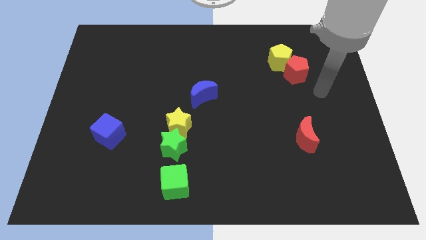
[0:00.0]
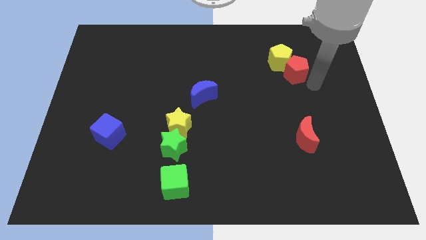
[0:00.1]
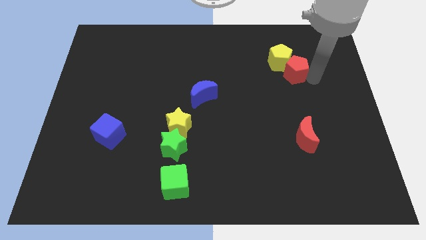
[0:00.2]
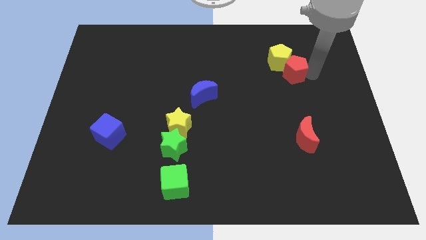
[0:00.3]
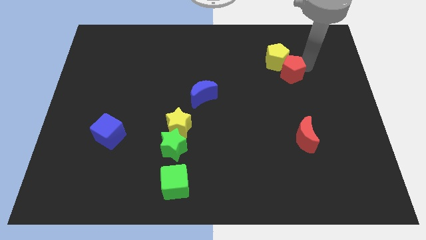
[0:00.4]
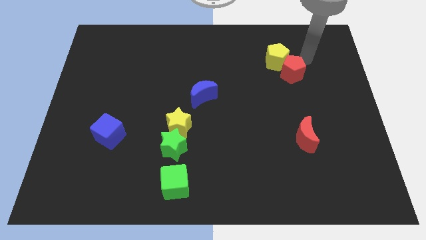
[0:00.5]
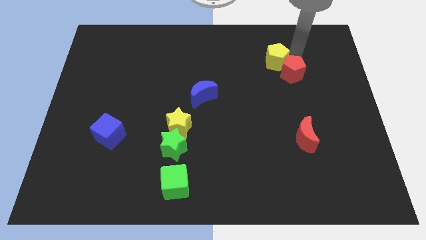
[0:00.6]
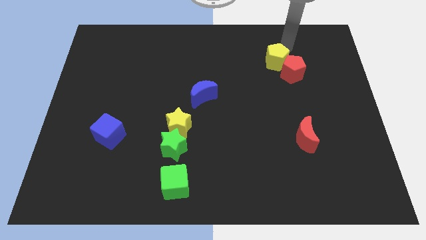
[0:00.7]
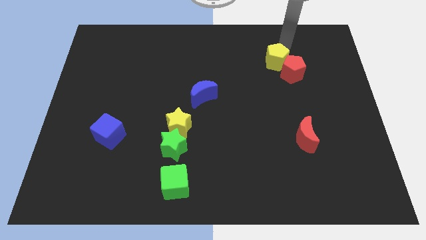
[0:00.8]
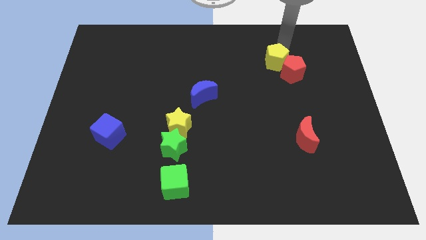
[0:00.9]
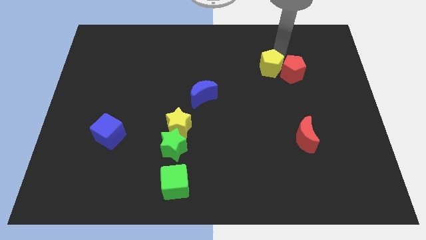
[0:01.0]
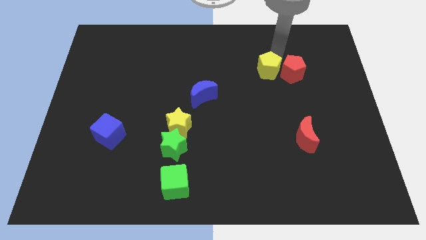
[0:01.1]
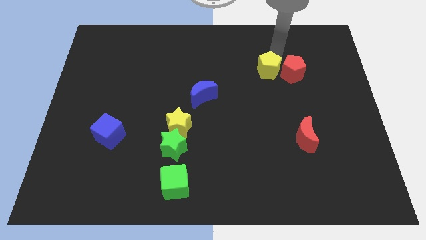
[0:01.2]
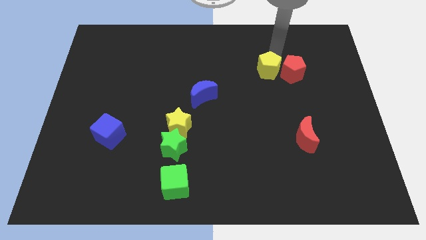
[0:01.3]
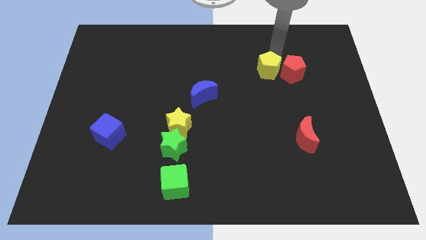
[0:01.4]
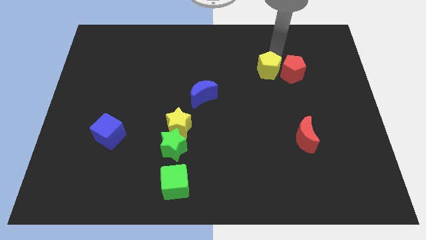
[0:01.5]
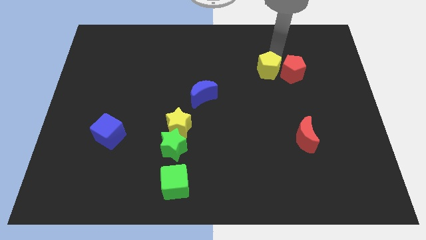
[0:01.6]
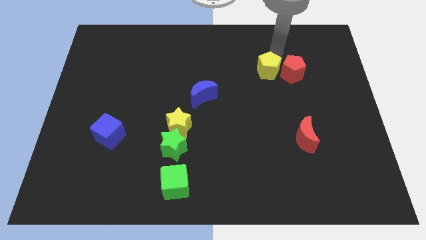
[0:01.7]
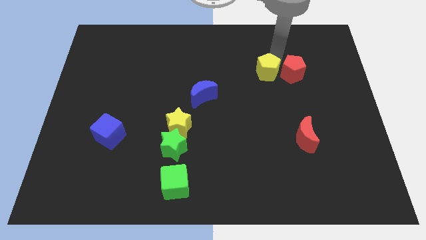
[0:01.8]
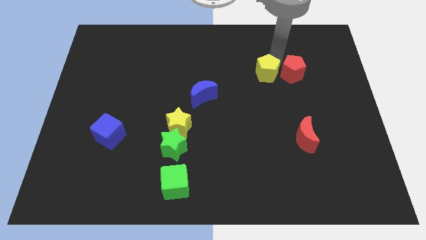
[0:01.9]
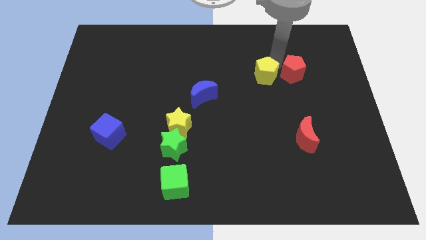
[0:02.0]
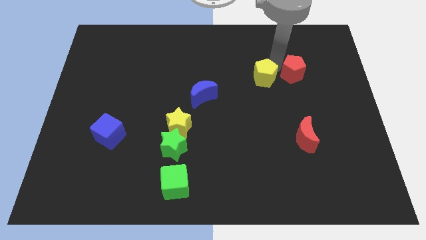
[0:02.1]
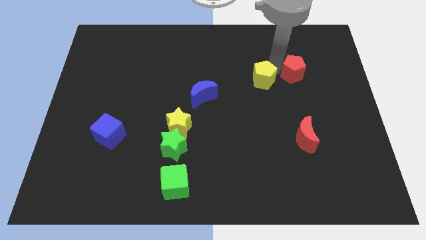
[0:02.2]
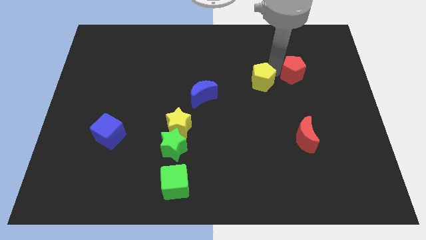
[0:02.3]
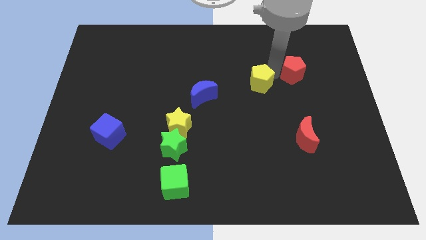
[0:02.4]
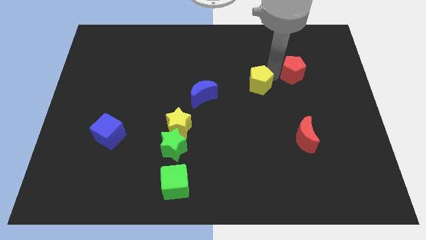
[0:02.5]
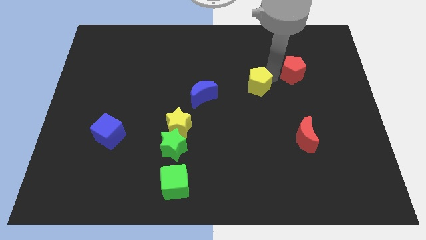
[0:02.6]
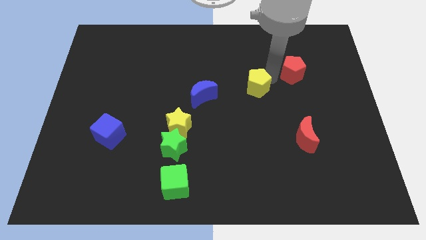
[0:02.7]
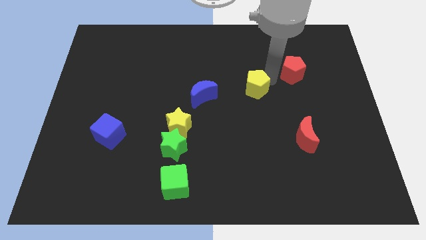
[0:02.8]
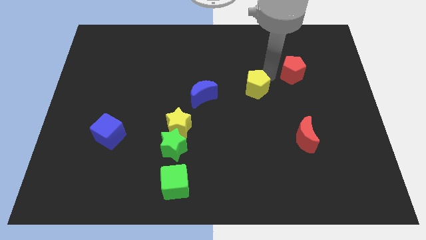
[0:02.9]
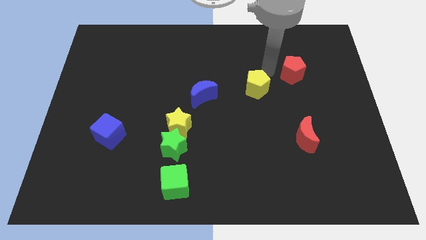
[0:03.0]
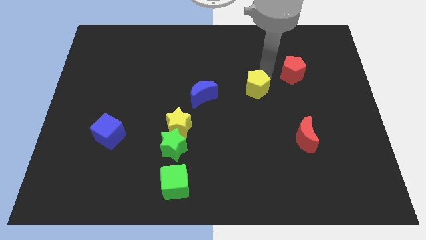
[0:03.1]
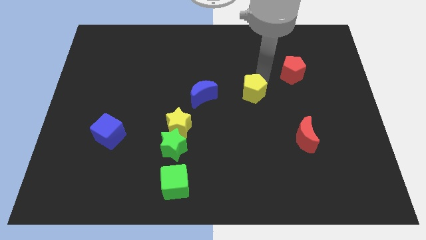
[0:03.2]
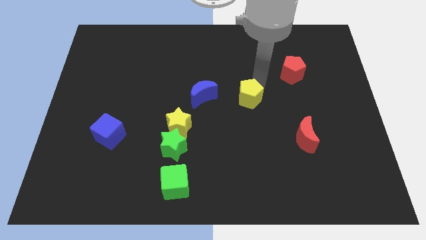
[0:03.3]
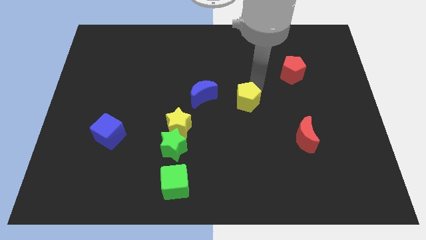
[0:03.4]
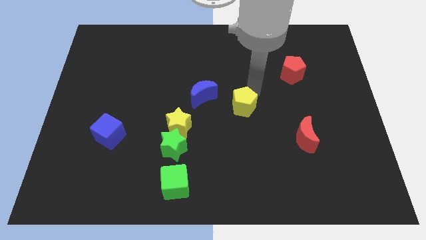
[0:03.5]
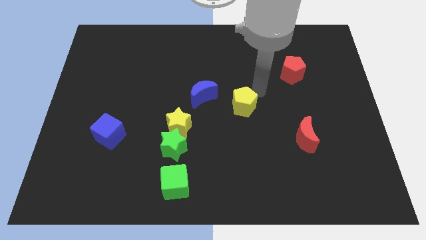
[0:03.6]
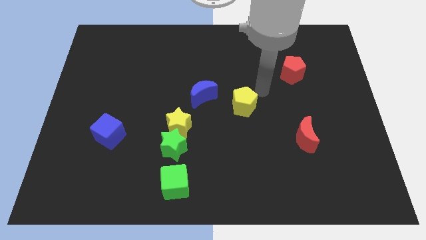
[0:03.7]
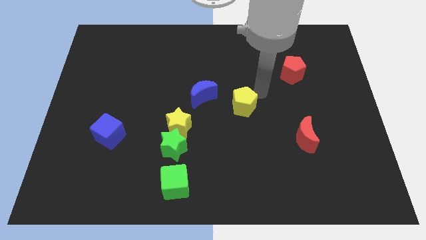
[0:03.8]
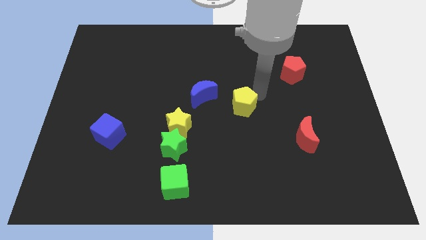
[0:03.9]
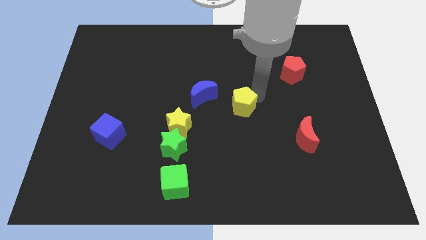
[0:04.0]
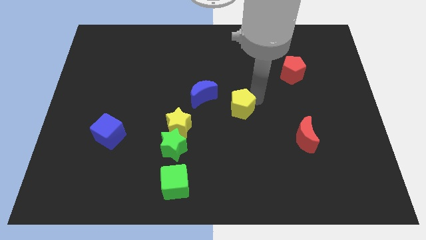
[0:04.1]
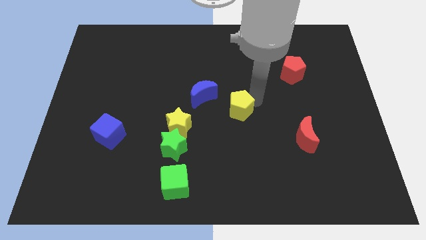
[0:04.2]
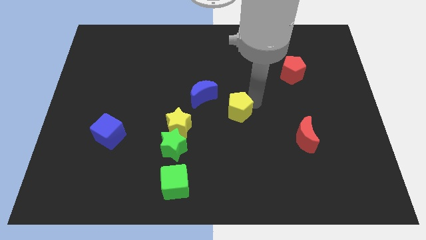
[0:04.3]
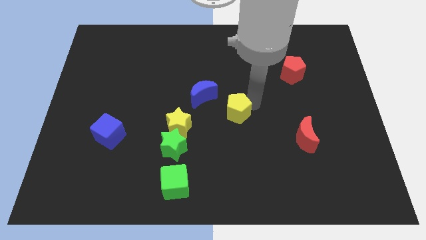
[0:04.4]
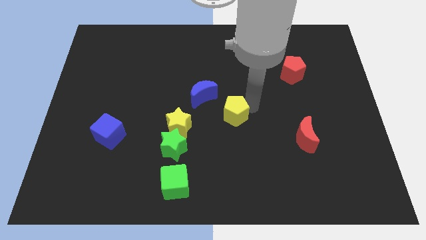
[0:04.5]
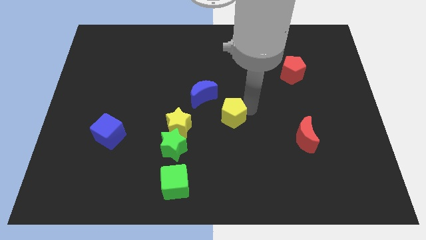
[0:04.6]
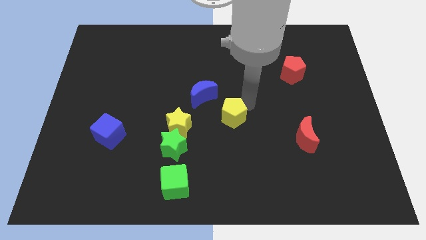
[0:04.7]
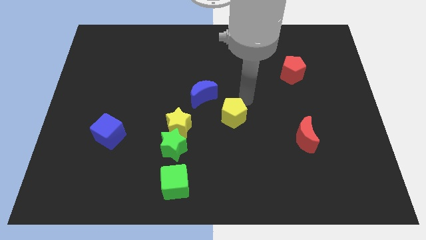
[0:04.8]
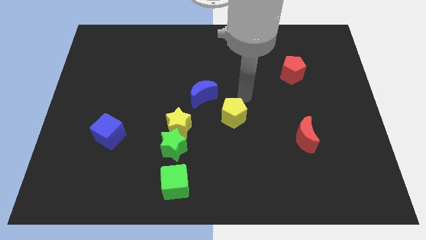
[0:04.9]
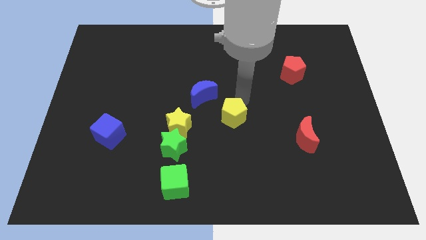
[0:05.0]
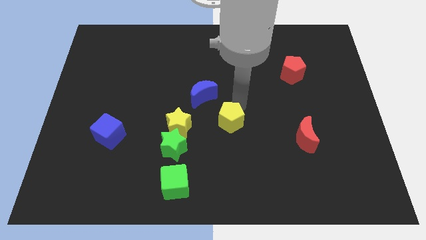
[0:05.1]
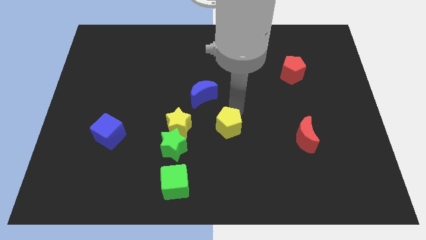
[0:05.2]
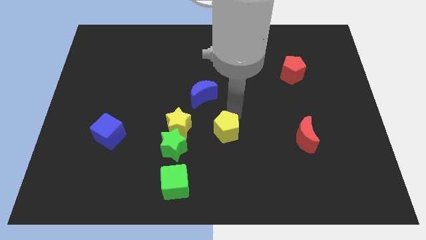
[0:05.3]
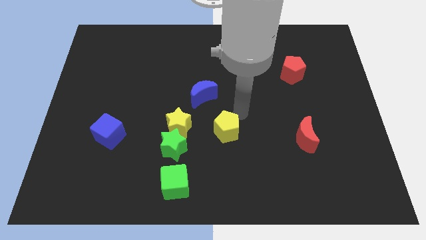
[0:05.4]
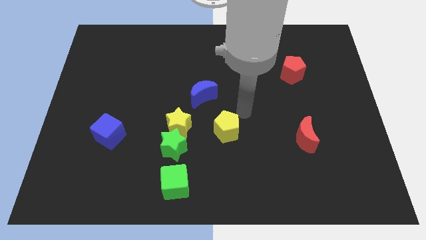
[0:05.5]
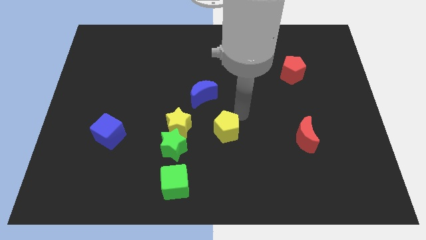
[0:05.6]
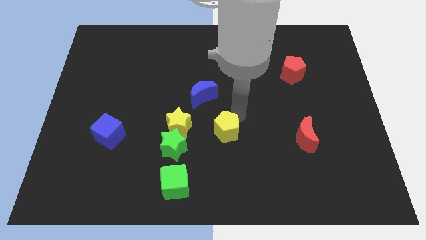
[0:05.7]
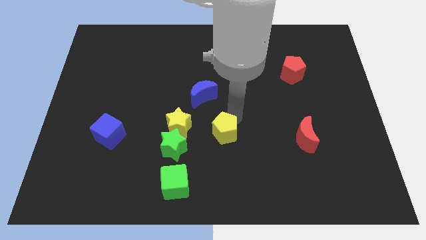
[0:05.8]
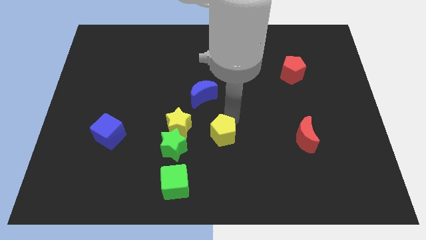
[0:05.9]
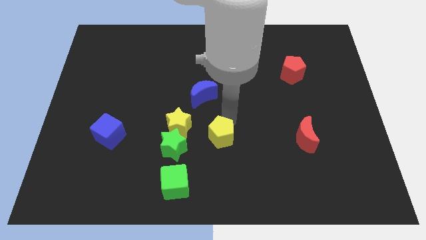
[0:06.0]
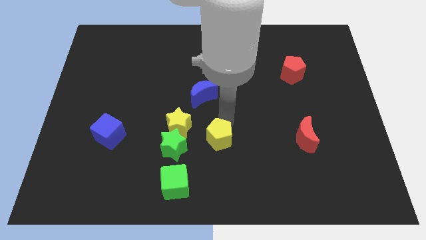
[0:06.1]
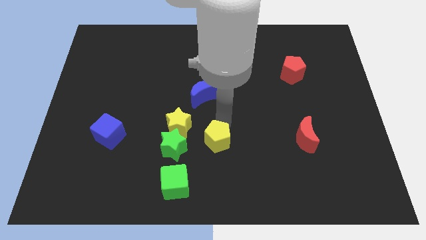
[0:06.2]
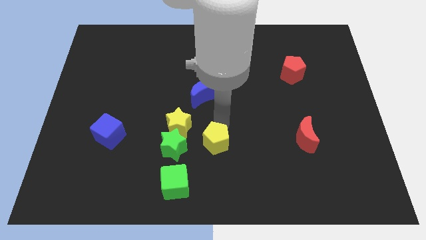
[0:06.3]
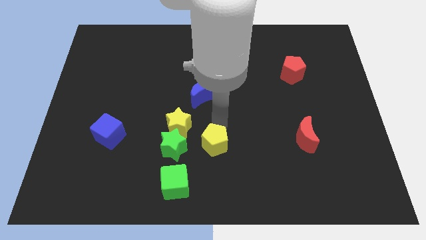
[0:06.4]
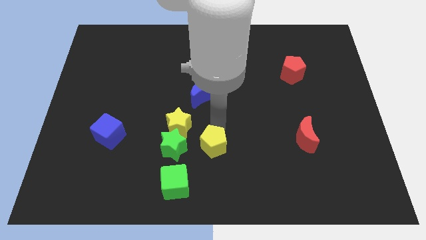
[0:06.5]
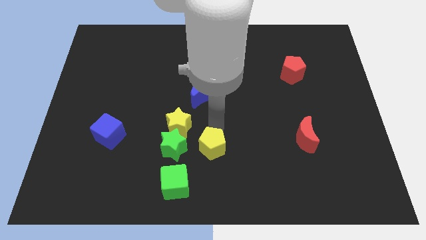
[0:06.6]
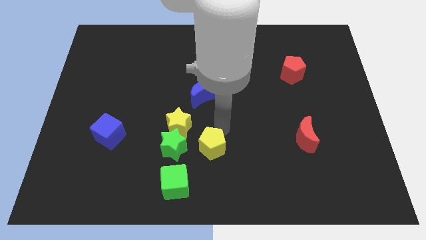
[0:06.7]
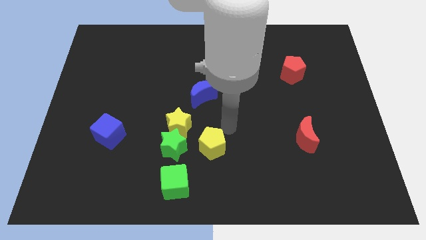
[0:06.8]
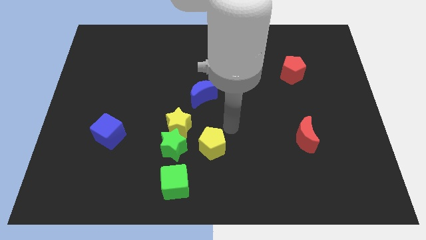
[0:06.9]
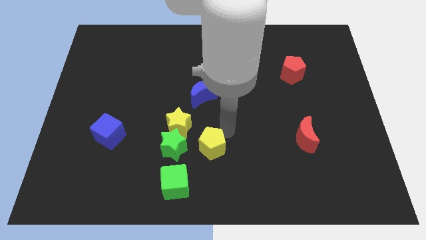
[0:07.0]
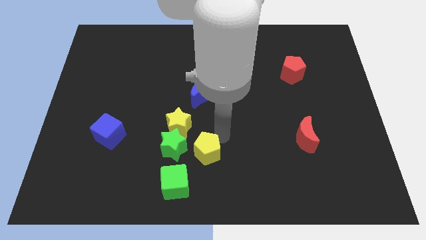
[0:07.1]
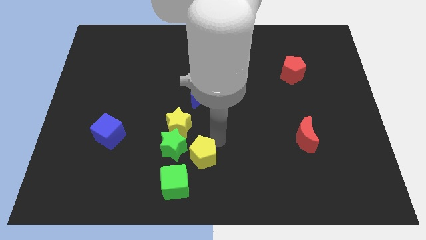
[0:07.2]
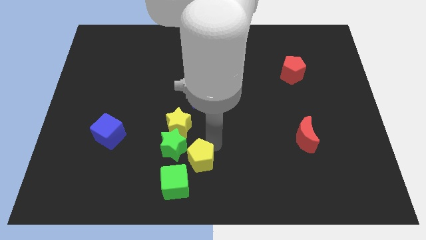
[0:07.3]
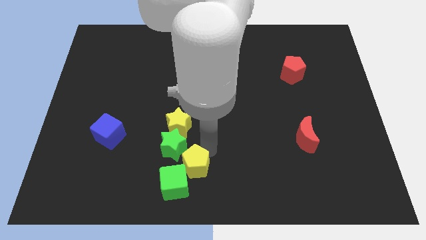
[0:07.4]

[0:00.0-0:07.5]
push the yellow pentagon close to the green cube

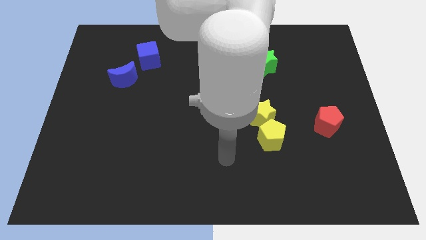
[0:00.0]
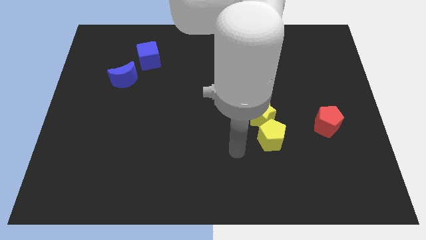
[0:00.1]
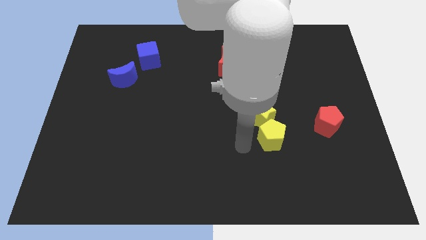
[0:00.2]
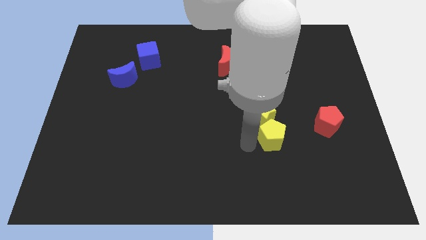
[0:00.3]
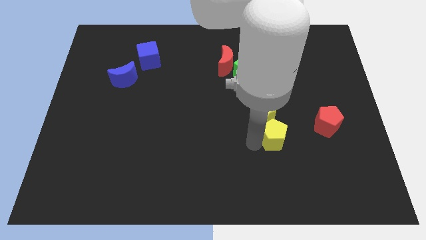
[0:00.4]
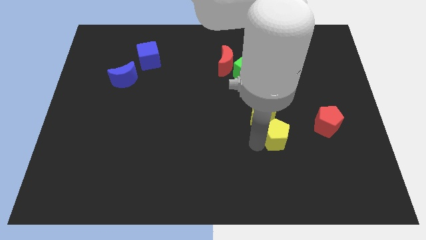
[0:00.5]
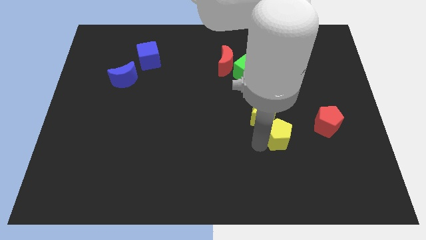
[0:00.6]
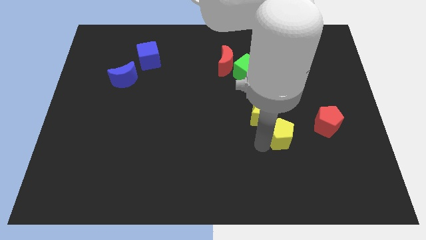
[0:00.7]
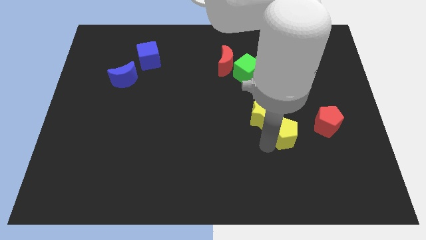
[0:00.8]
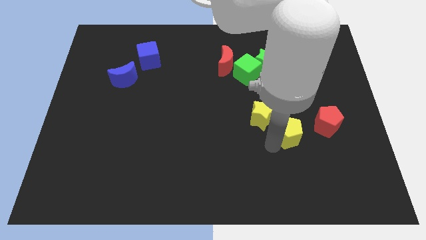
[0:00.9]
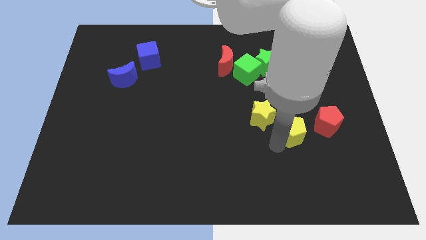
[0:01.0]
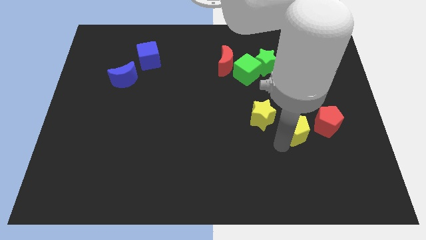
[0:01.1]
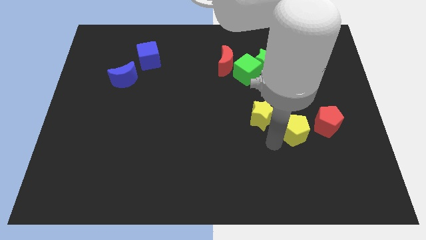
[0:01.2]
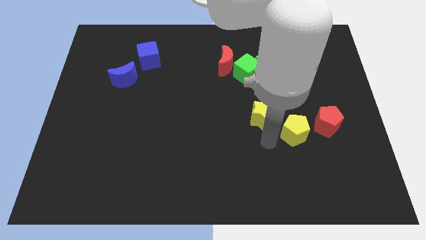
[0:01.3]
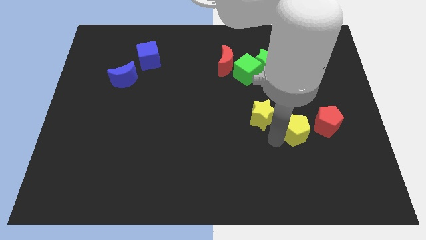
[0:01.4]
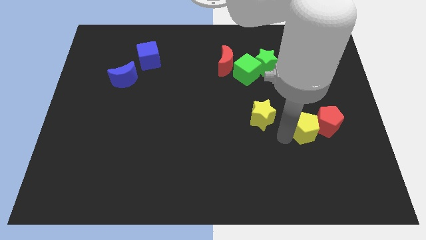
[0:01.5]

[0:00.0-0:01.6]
push the yellow pentagon to the red pentagon
